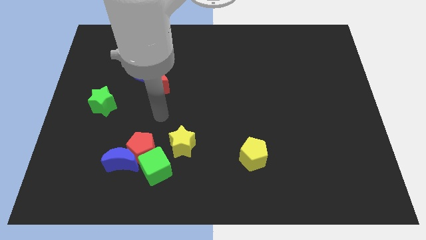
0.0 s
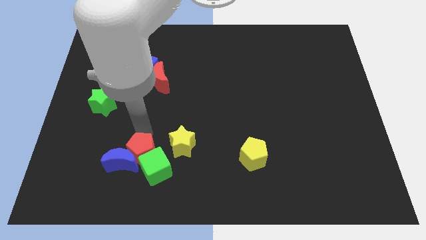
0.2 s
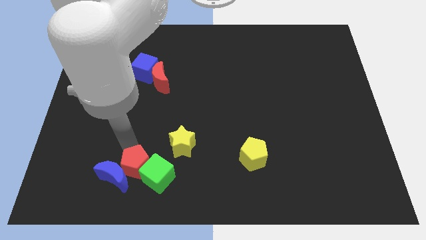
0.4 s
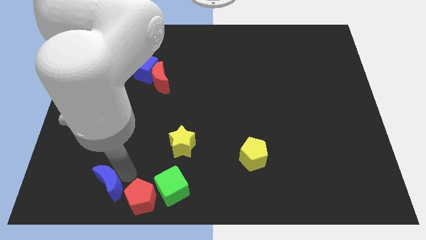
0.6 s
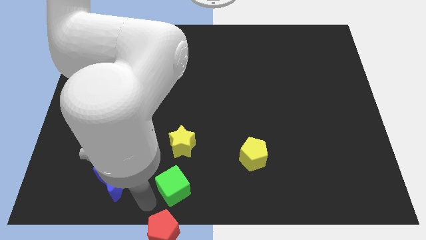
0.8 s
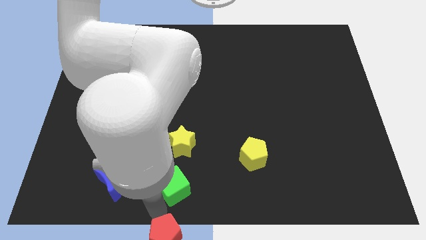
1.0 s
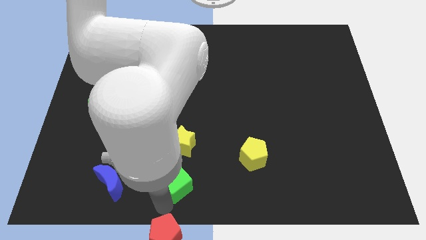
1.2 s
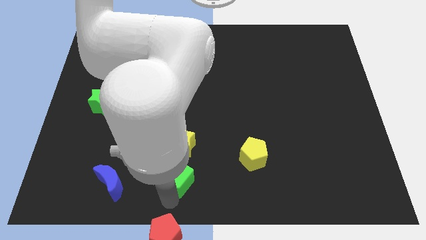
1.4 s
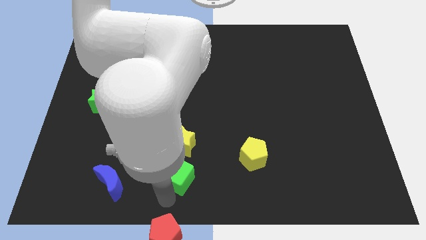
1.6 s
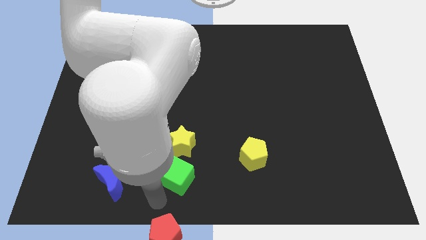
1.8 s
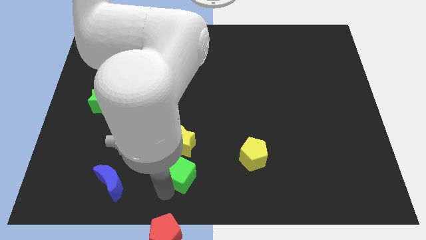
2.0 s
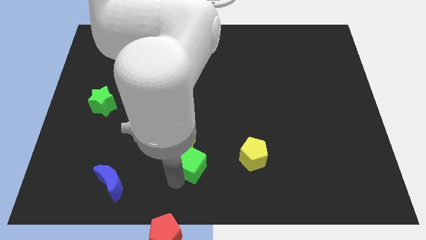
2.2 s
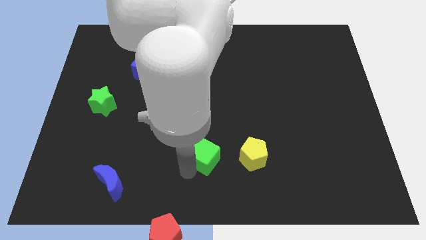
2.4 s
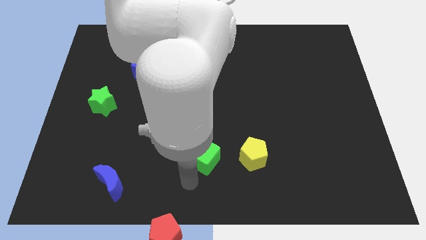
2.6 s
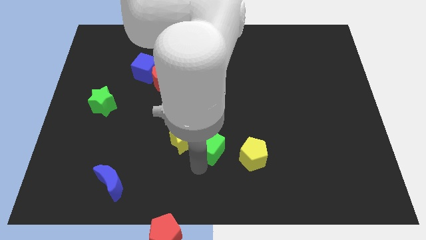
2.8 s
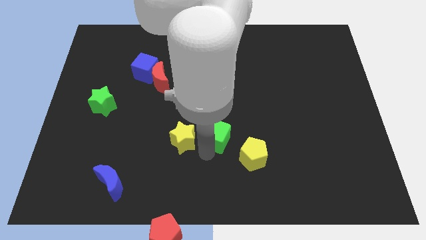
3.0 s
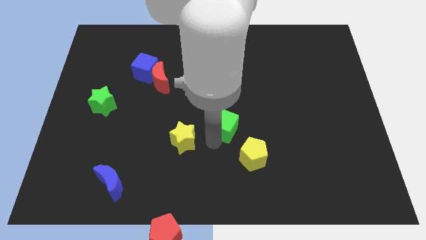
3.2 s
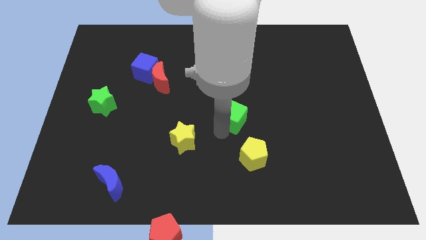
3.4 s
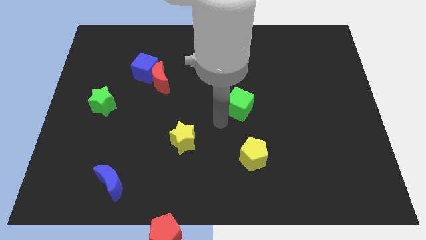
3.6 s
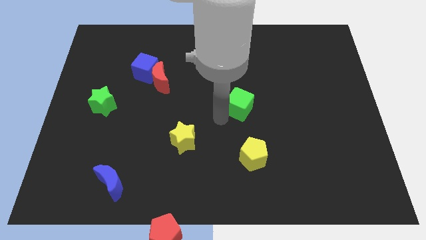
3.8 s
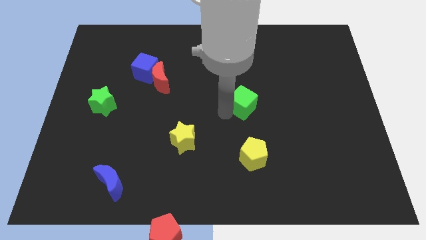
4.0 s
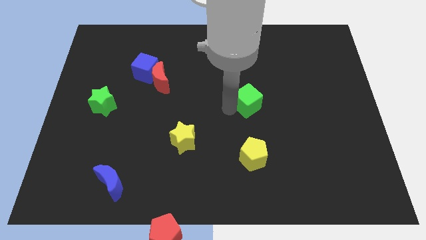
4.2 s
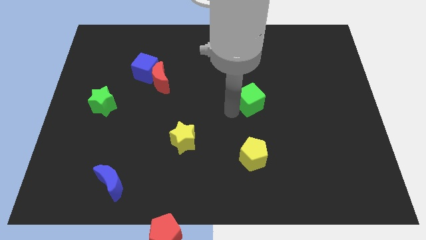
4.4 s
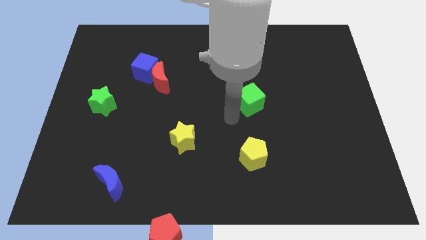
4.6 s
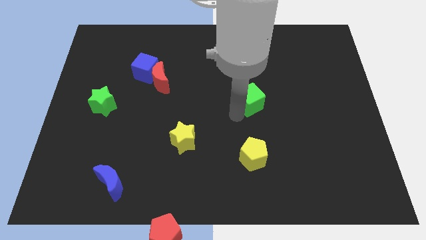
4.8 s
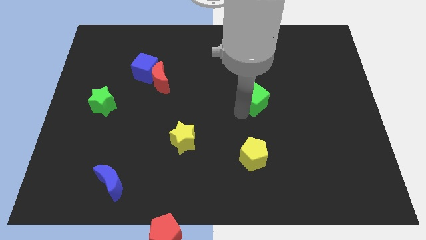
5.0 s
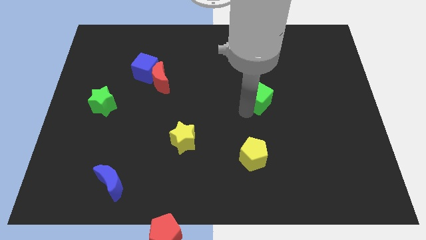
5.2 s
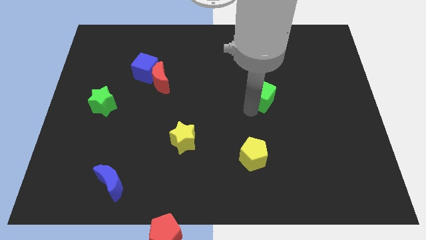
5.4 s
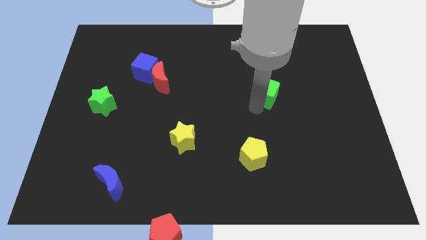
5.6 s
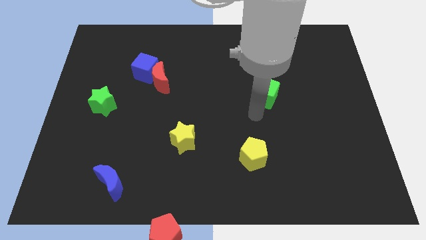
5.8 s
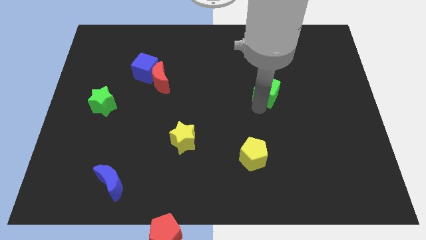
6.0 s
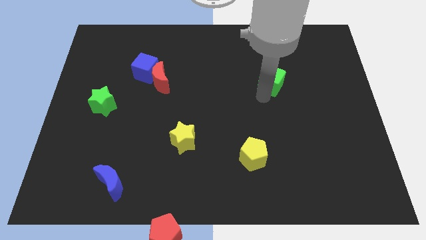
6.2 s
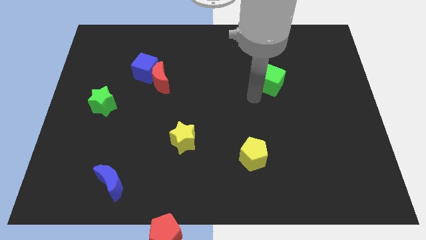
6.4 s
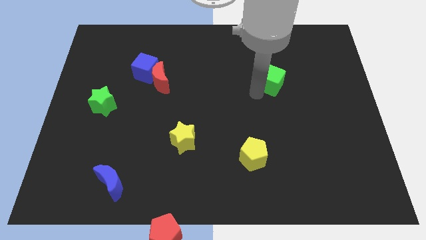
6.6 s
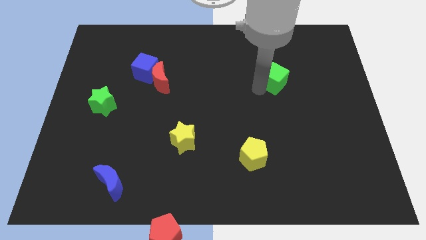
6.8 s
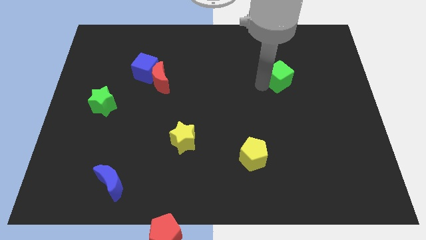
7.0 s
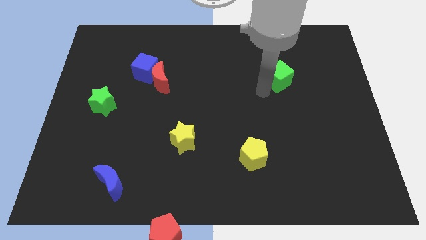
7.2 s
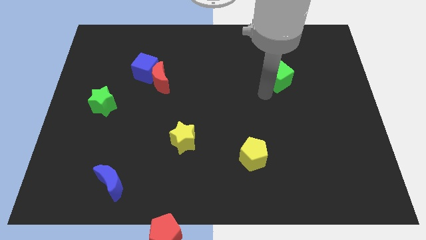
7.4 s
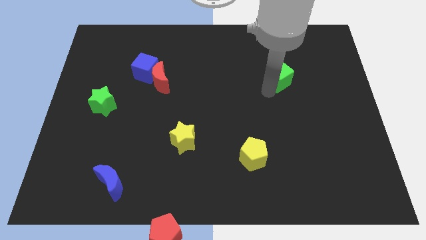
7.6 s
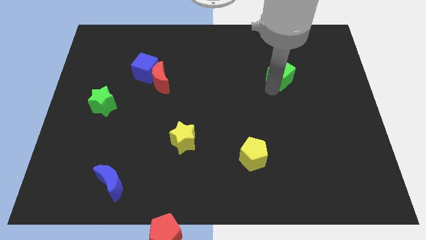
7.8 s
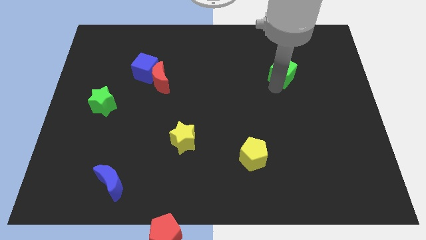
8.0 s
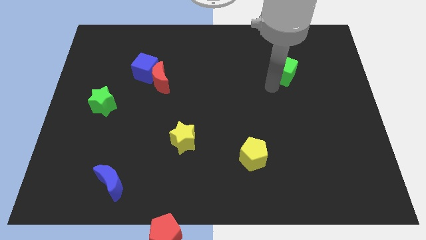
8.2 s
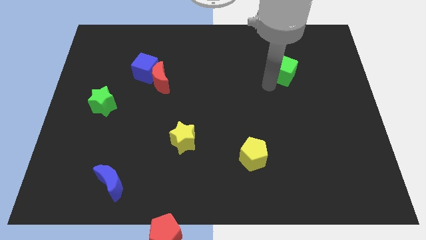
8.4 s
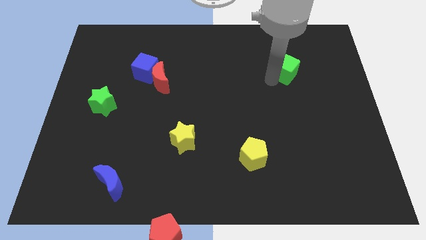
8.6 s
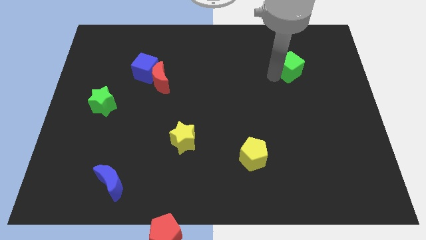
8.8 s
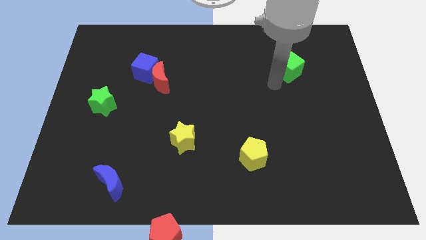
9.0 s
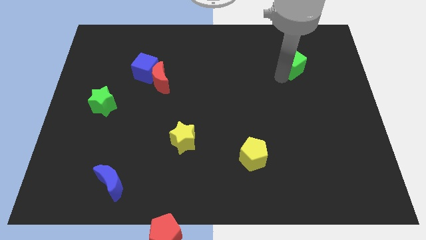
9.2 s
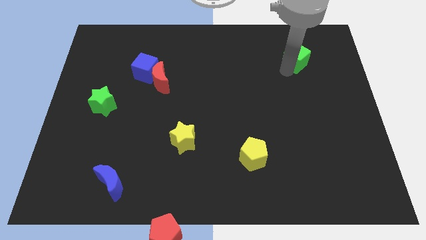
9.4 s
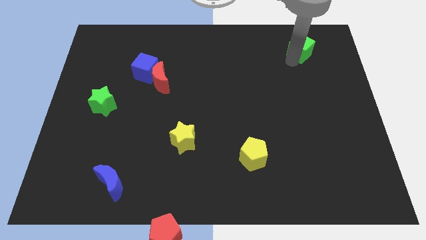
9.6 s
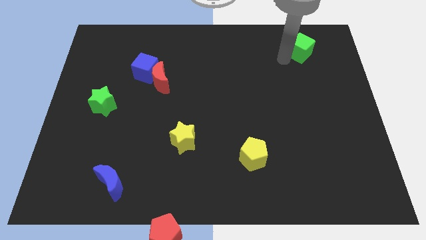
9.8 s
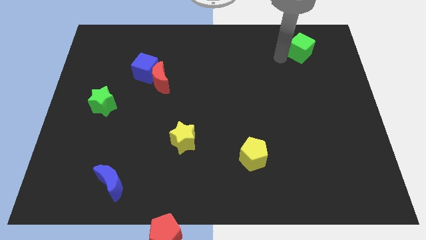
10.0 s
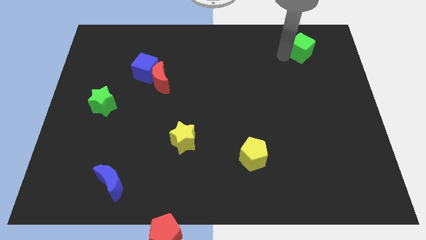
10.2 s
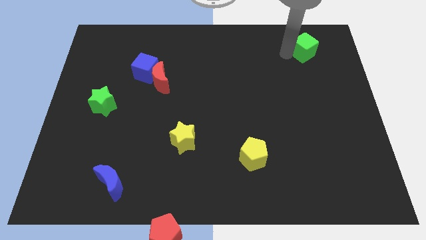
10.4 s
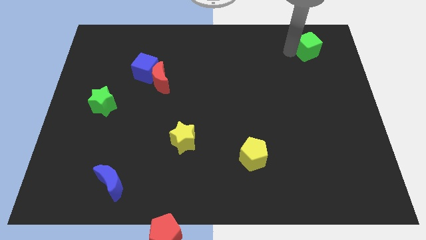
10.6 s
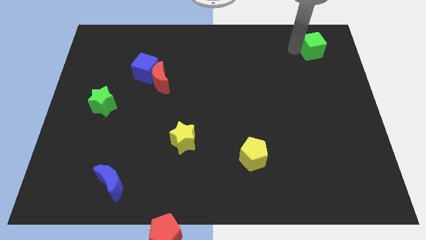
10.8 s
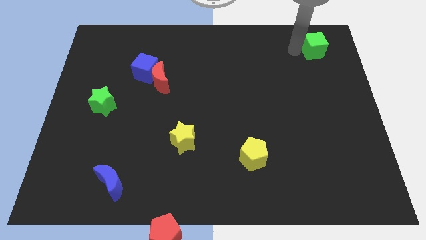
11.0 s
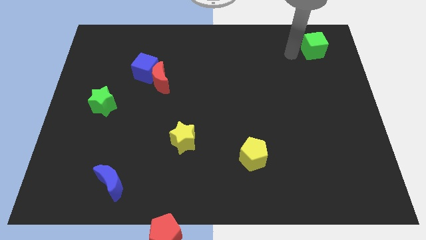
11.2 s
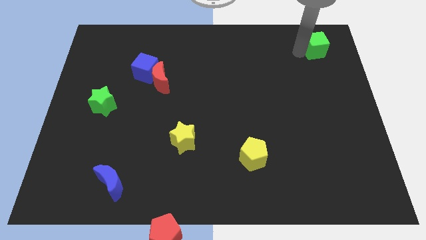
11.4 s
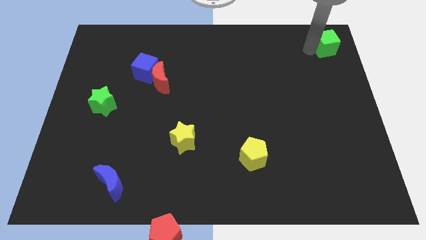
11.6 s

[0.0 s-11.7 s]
put the green cube to the top right corner

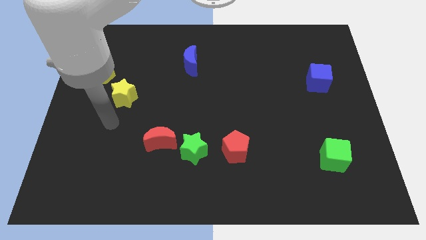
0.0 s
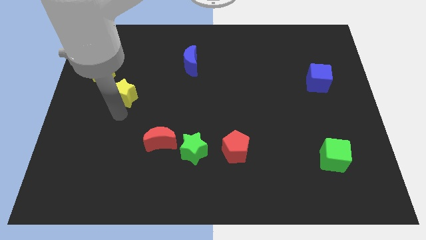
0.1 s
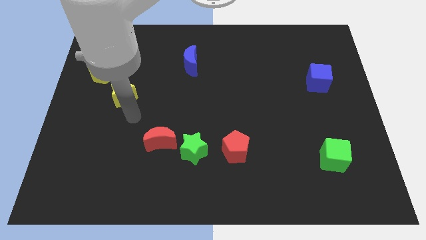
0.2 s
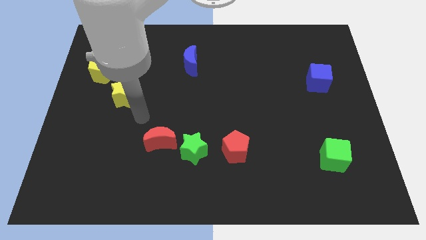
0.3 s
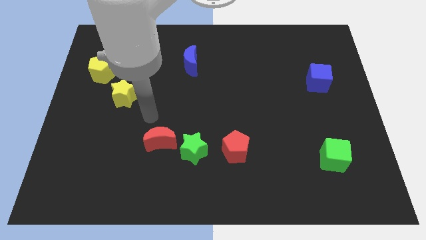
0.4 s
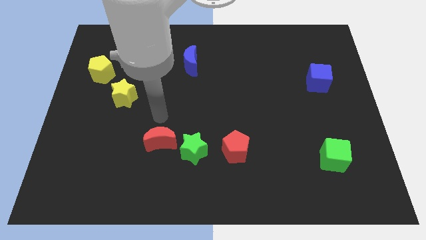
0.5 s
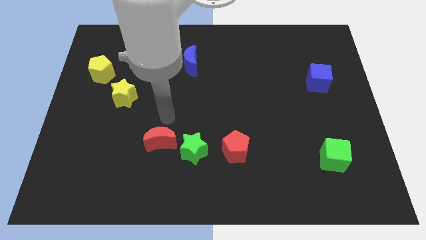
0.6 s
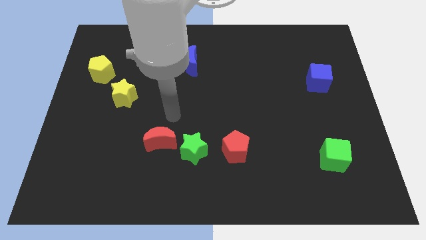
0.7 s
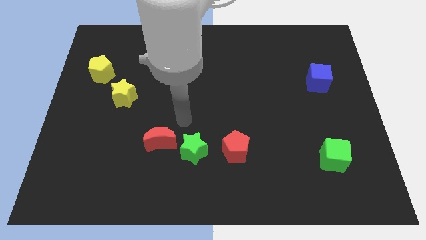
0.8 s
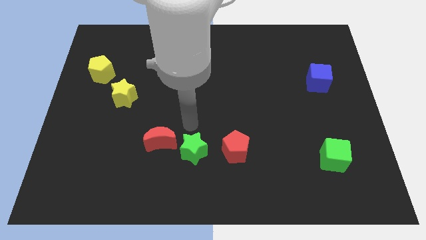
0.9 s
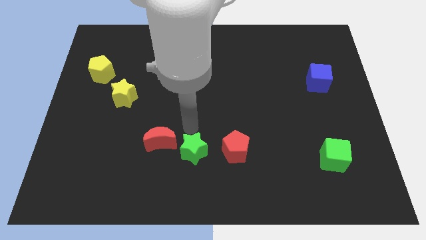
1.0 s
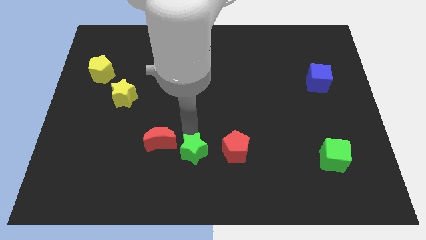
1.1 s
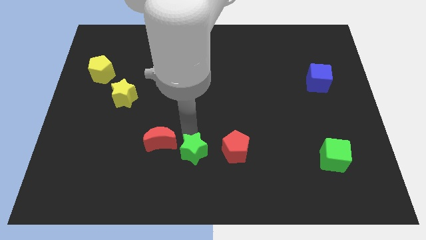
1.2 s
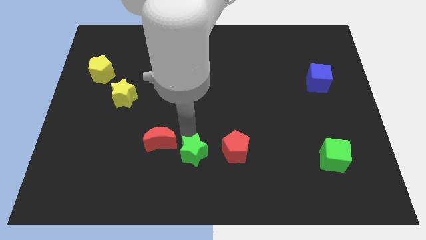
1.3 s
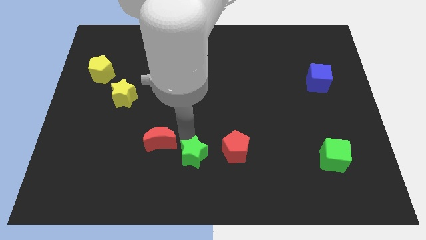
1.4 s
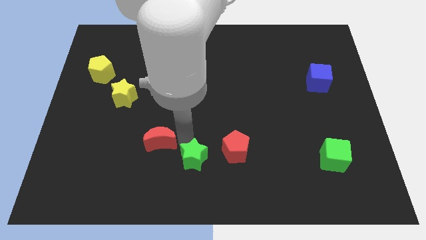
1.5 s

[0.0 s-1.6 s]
move the green star to the bottom side
